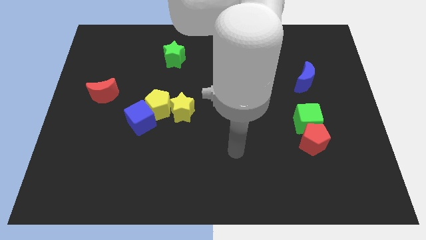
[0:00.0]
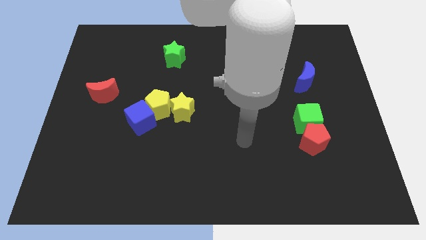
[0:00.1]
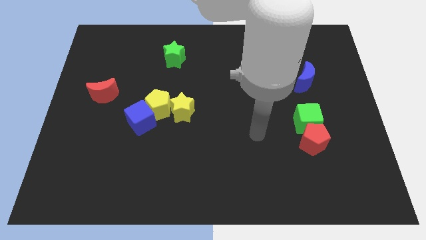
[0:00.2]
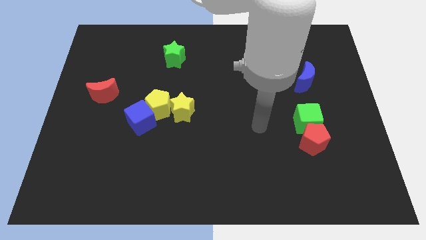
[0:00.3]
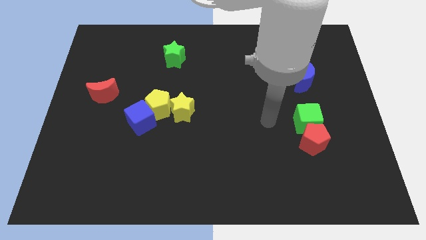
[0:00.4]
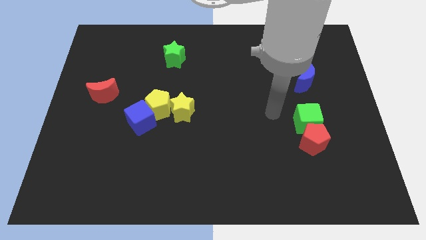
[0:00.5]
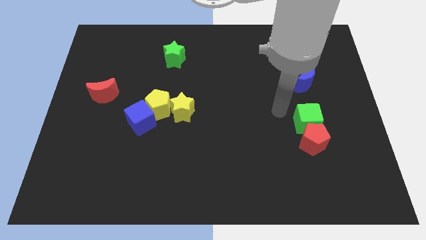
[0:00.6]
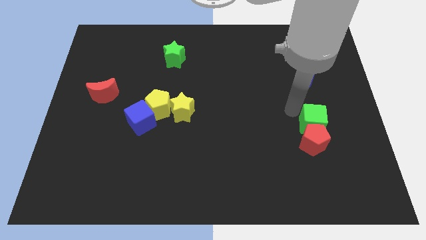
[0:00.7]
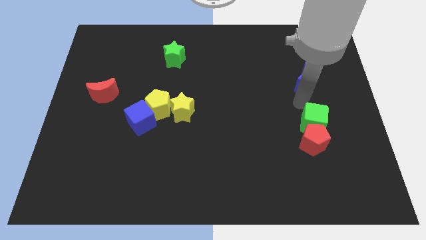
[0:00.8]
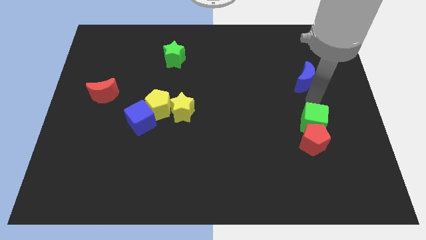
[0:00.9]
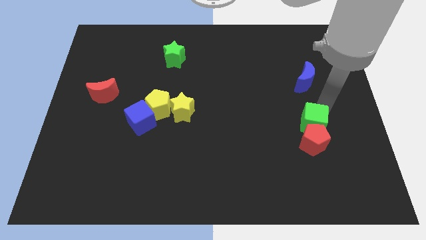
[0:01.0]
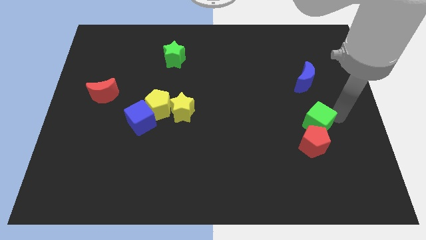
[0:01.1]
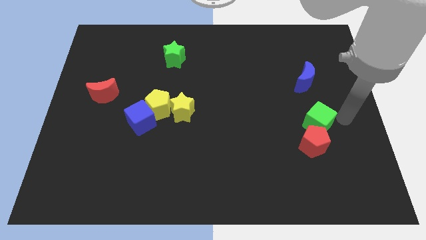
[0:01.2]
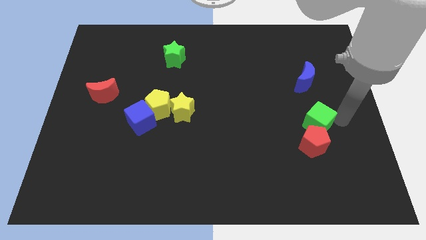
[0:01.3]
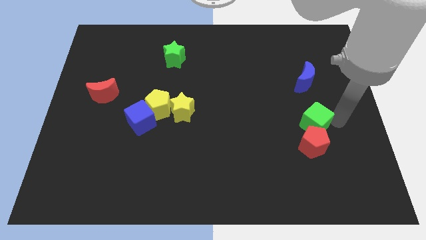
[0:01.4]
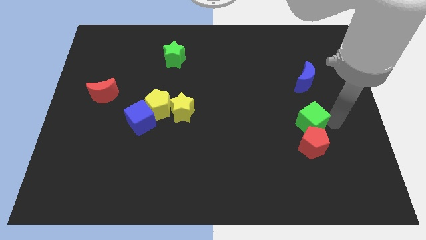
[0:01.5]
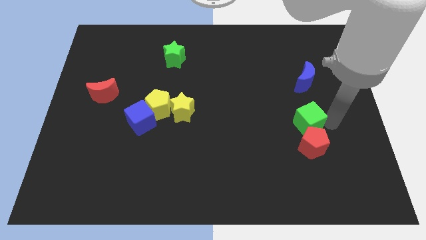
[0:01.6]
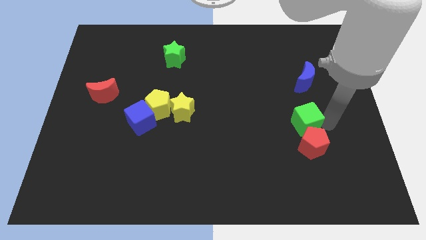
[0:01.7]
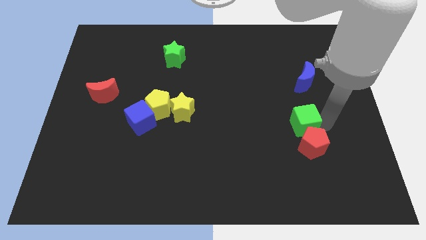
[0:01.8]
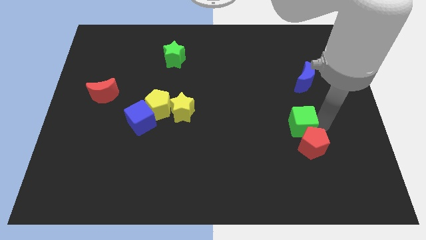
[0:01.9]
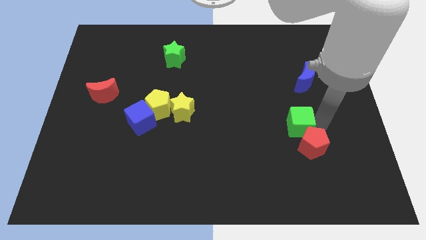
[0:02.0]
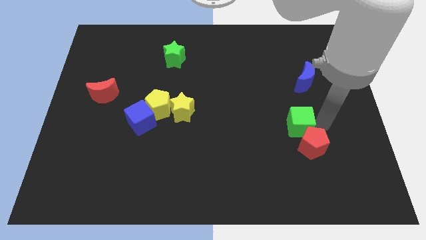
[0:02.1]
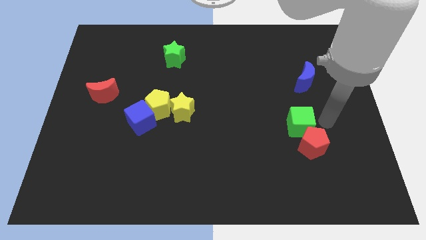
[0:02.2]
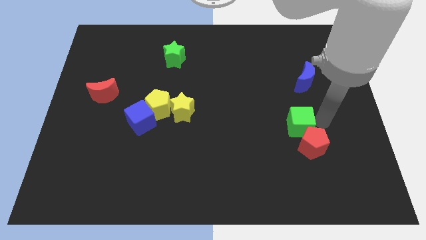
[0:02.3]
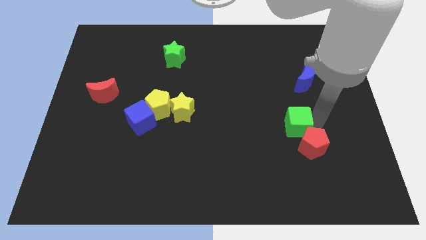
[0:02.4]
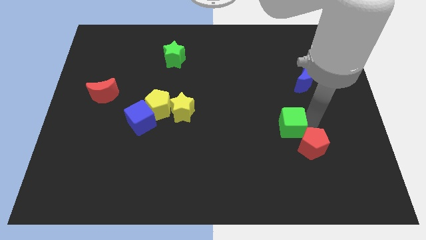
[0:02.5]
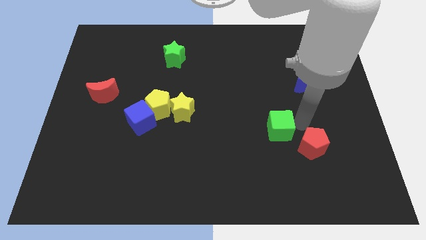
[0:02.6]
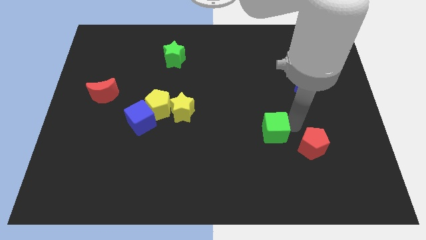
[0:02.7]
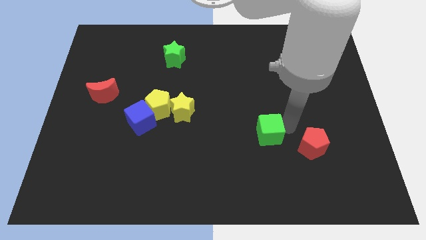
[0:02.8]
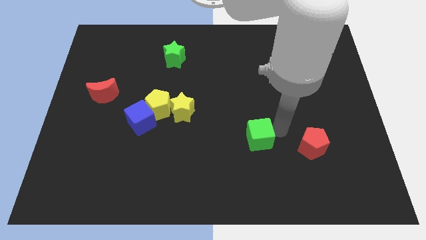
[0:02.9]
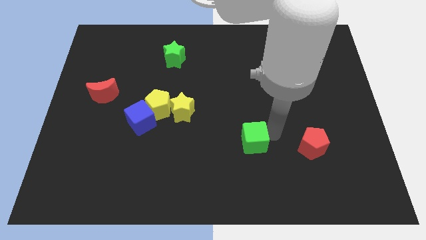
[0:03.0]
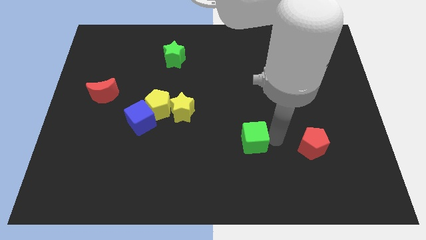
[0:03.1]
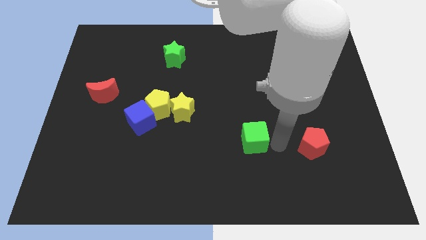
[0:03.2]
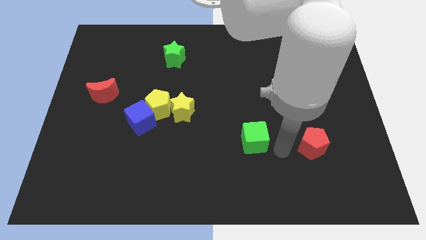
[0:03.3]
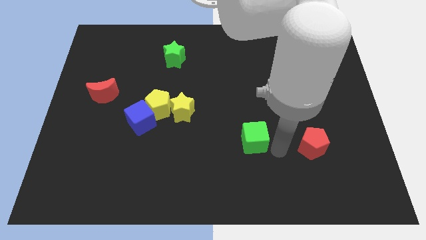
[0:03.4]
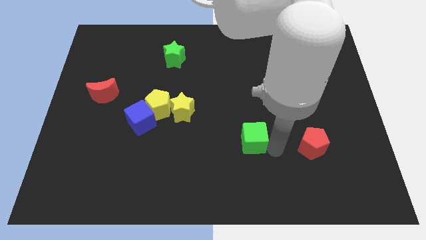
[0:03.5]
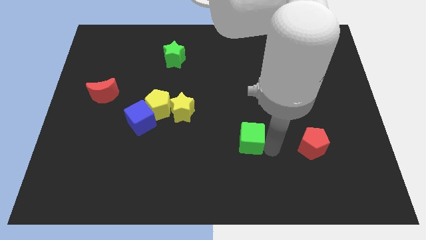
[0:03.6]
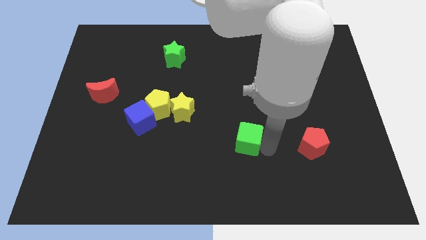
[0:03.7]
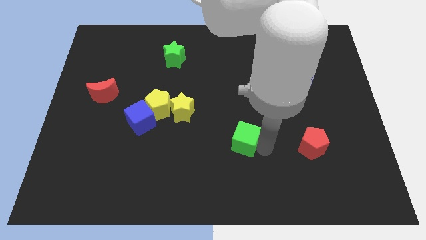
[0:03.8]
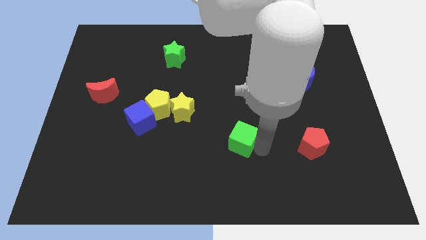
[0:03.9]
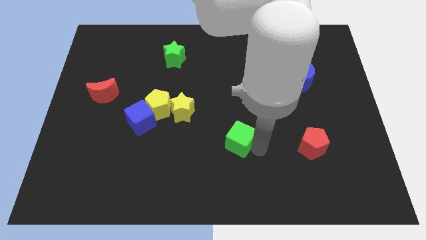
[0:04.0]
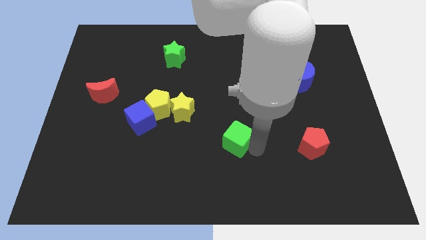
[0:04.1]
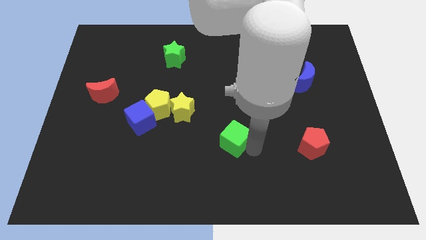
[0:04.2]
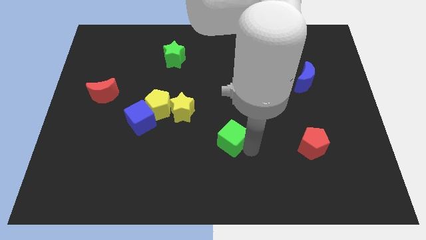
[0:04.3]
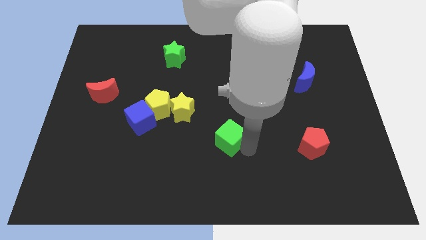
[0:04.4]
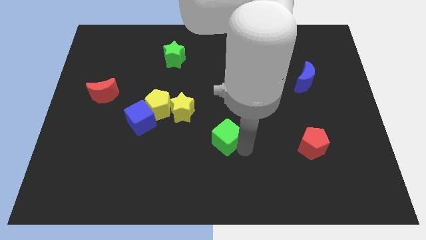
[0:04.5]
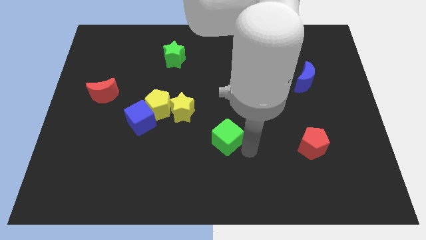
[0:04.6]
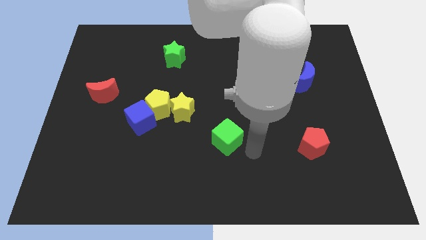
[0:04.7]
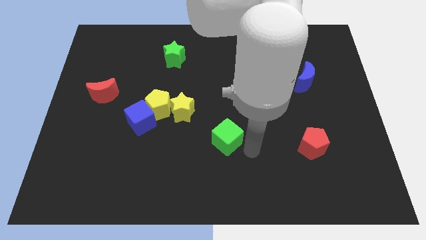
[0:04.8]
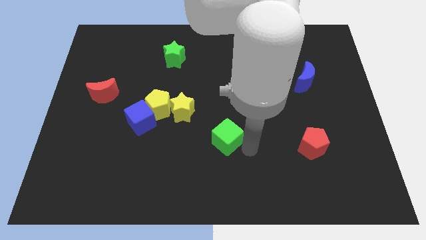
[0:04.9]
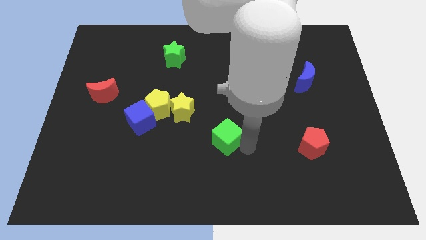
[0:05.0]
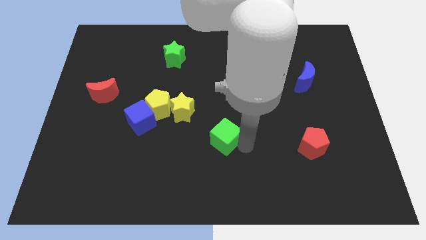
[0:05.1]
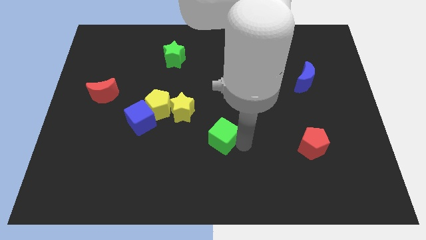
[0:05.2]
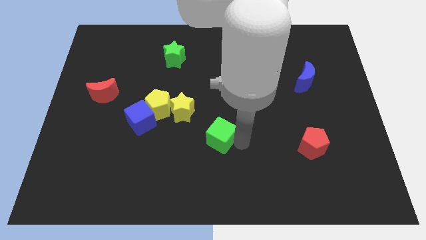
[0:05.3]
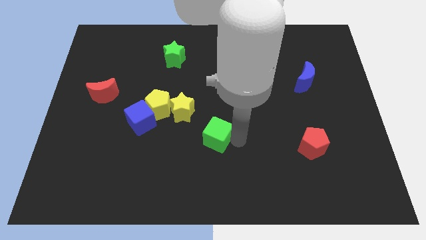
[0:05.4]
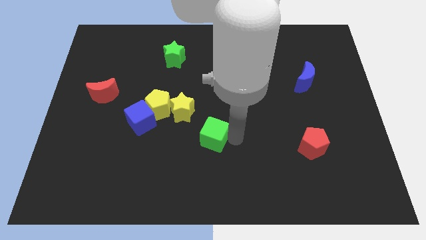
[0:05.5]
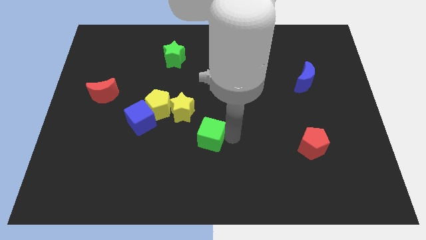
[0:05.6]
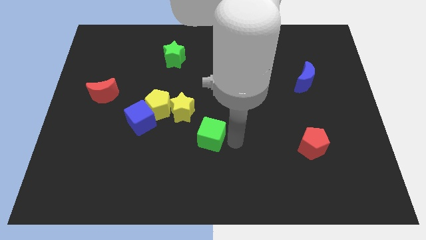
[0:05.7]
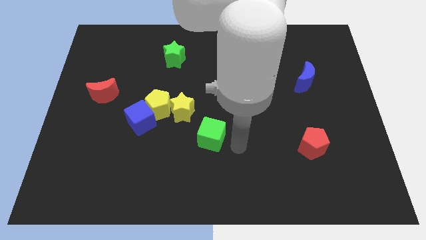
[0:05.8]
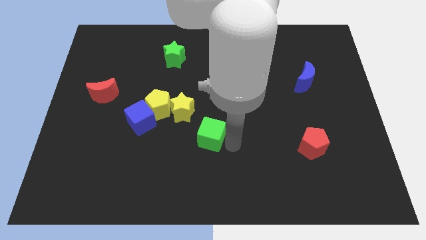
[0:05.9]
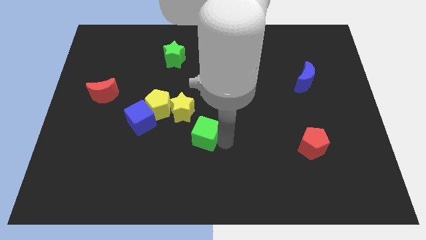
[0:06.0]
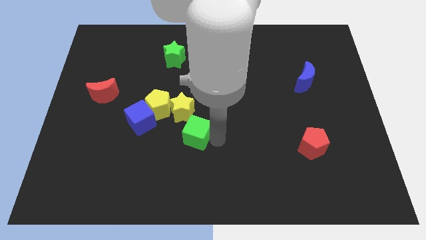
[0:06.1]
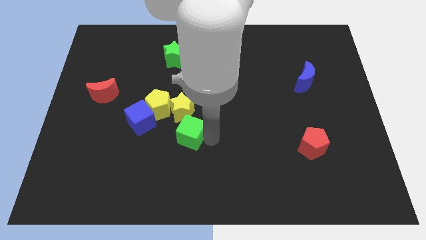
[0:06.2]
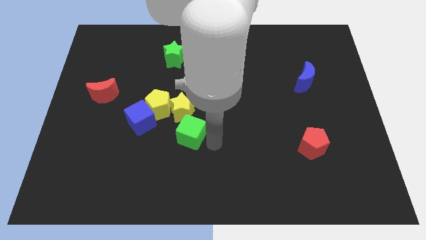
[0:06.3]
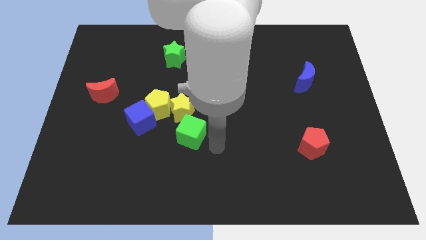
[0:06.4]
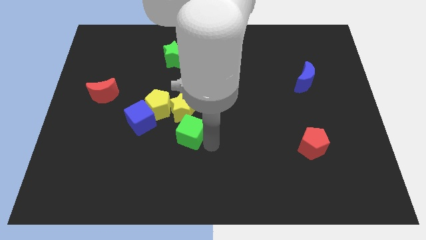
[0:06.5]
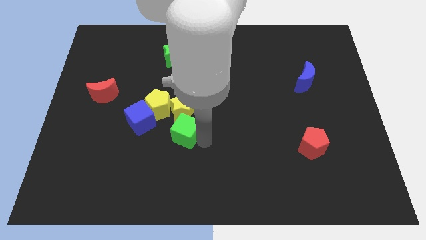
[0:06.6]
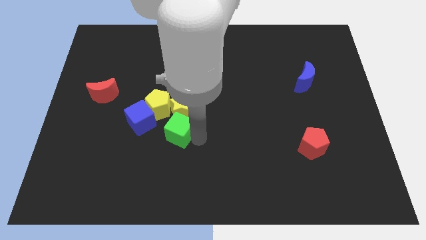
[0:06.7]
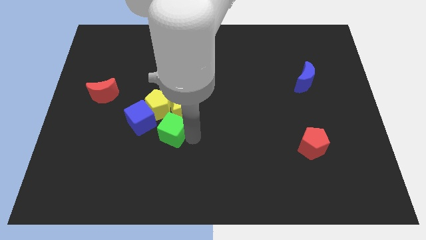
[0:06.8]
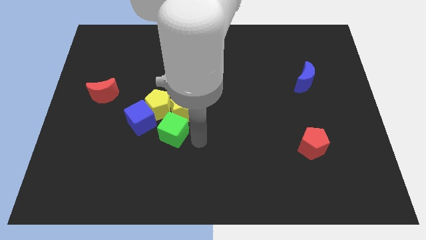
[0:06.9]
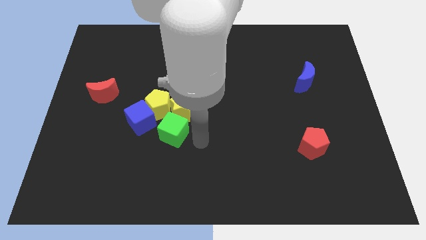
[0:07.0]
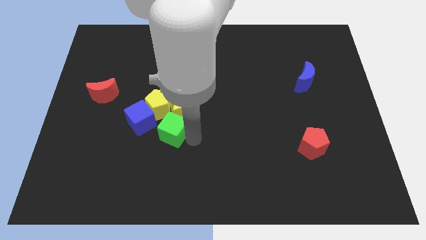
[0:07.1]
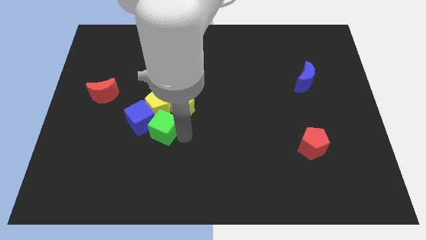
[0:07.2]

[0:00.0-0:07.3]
put the green cube next to the blue cube
